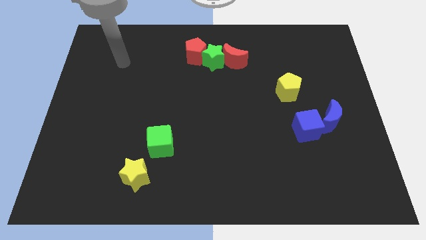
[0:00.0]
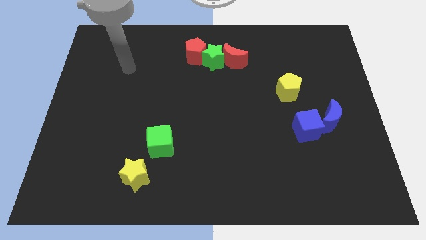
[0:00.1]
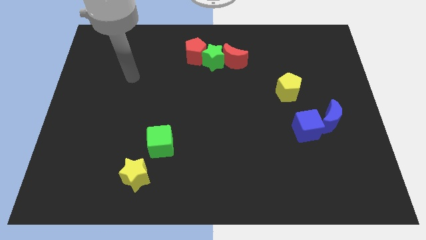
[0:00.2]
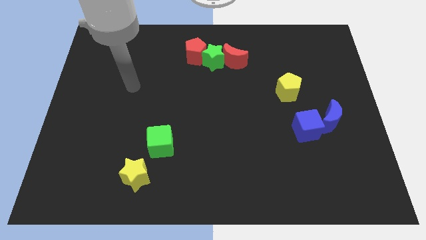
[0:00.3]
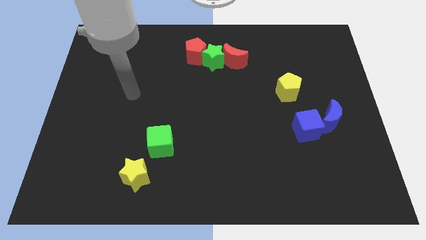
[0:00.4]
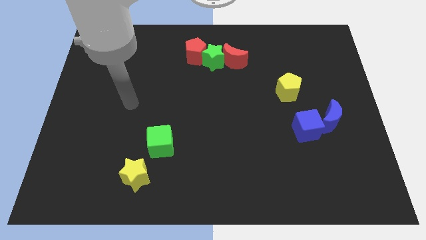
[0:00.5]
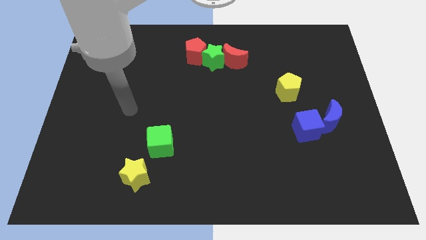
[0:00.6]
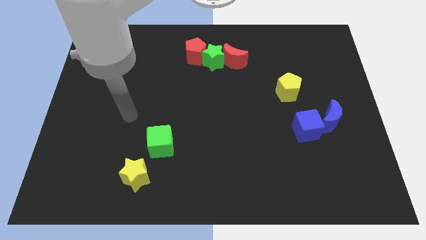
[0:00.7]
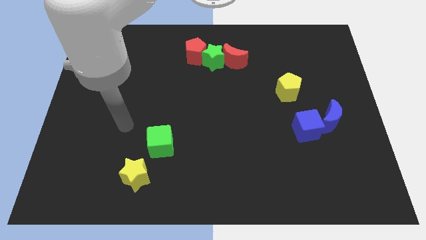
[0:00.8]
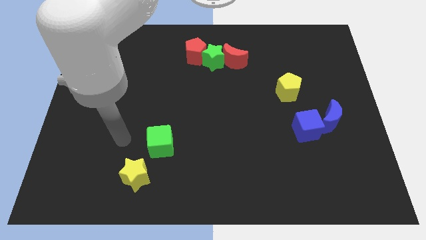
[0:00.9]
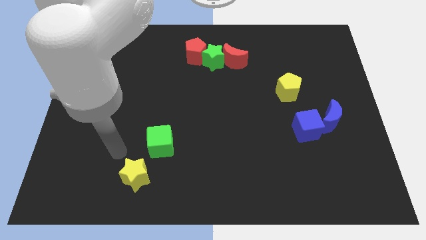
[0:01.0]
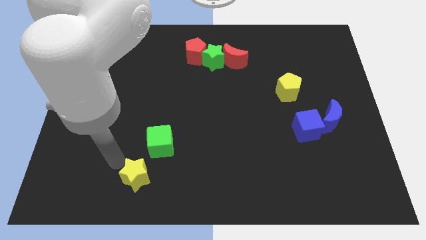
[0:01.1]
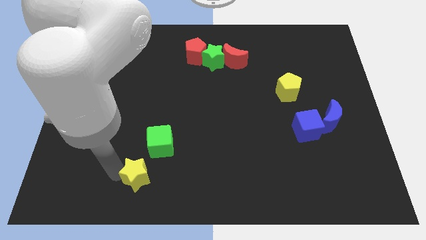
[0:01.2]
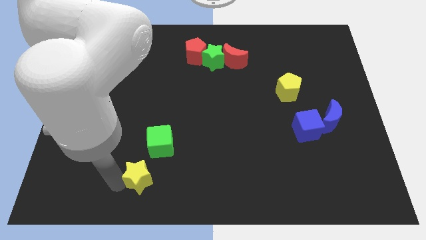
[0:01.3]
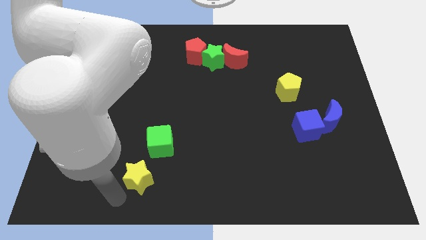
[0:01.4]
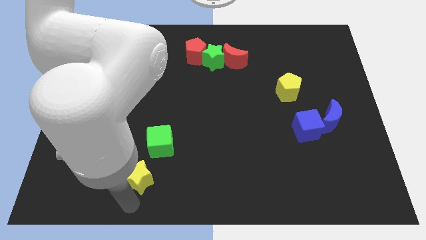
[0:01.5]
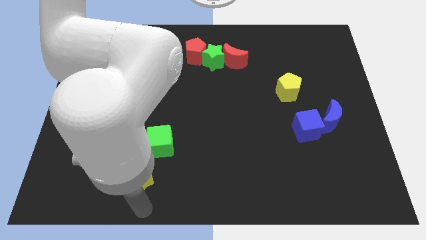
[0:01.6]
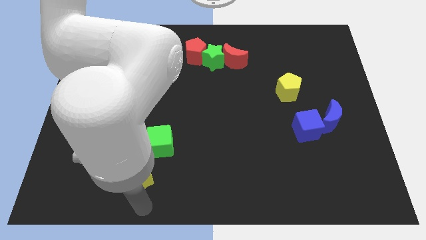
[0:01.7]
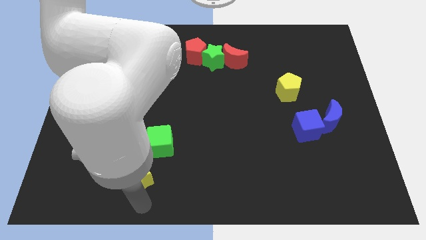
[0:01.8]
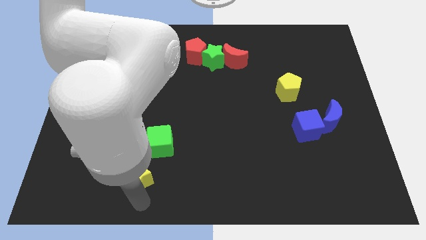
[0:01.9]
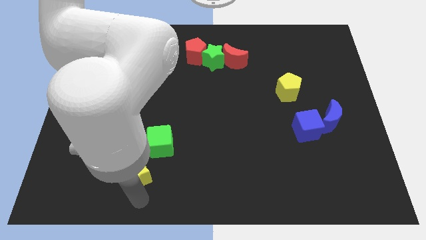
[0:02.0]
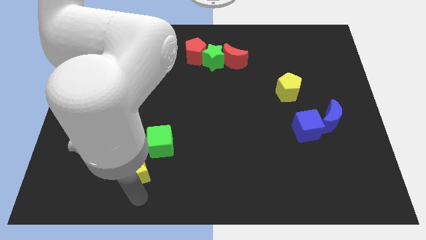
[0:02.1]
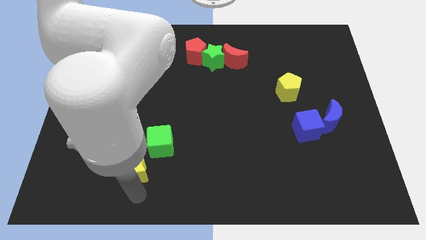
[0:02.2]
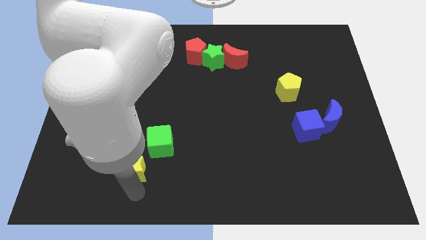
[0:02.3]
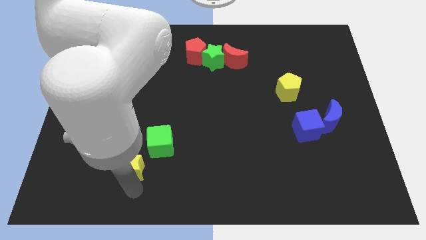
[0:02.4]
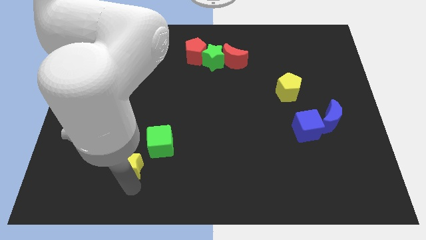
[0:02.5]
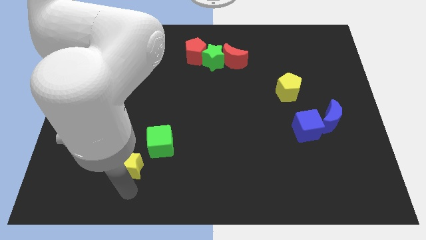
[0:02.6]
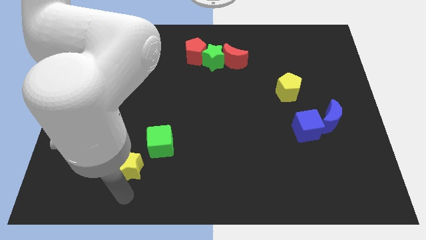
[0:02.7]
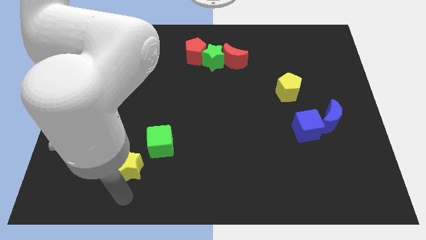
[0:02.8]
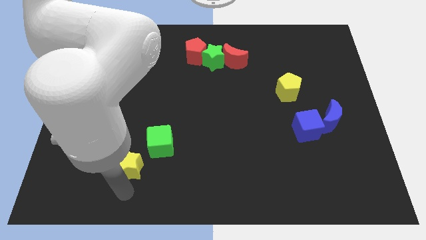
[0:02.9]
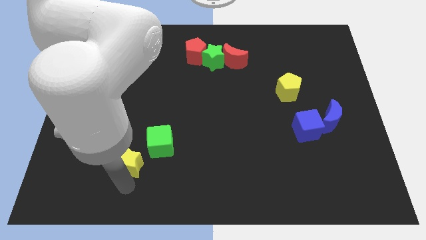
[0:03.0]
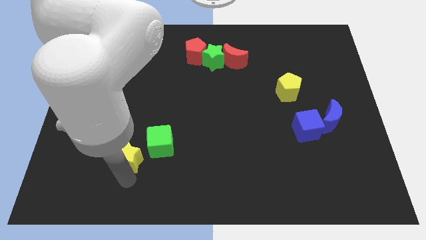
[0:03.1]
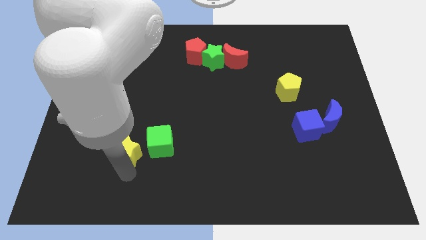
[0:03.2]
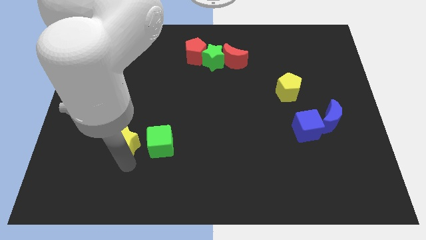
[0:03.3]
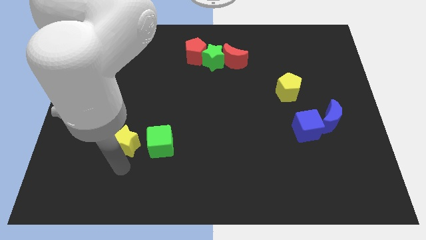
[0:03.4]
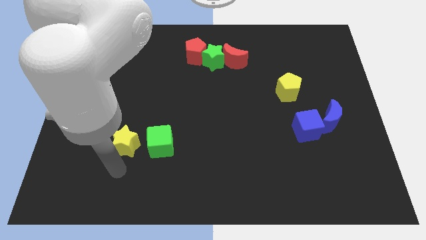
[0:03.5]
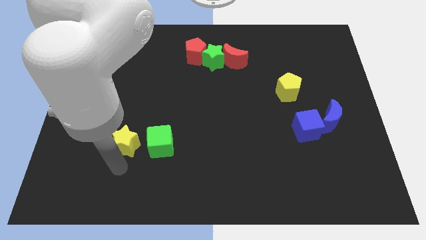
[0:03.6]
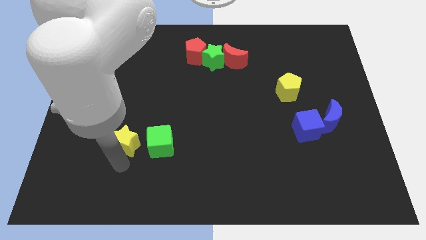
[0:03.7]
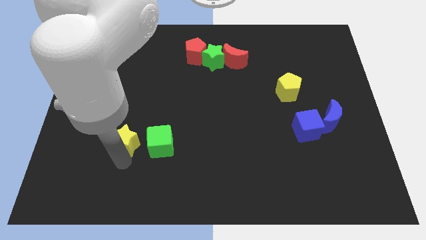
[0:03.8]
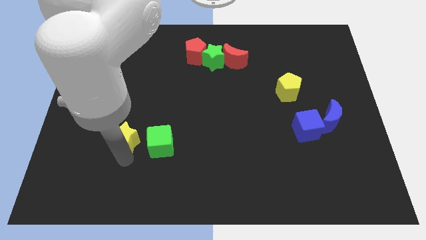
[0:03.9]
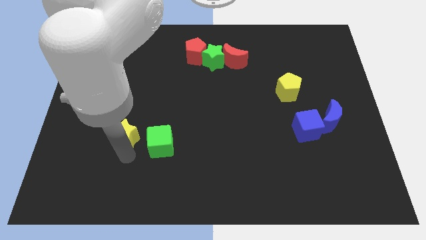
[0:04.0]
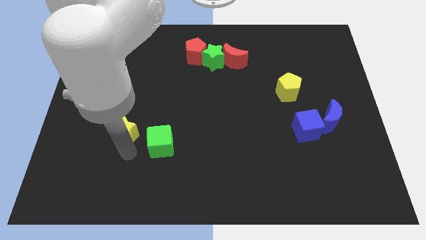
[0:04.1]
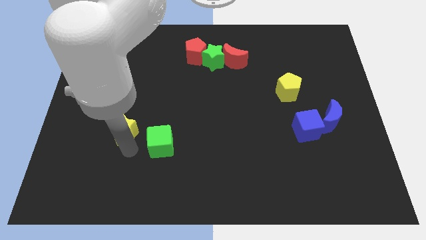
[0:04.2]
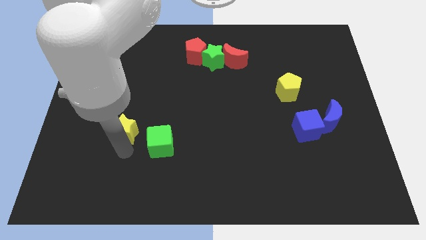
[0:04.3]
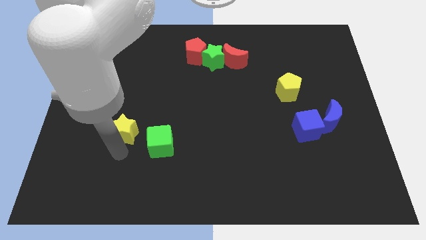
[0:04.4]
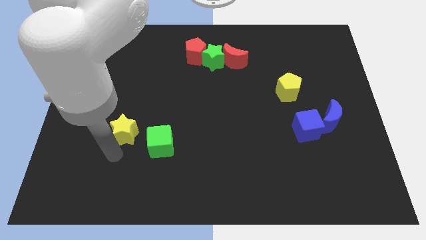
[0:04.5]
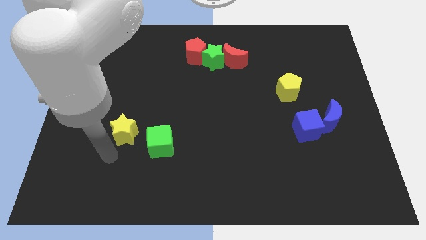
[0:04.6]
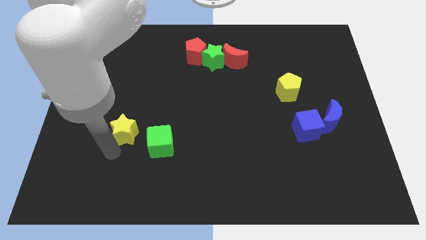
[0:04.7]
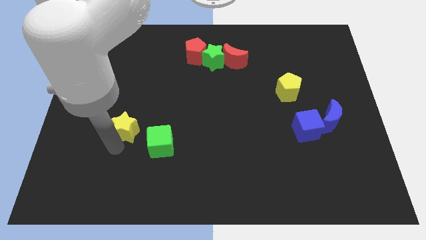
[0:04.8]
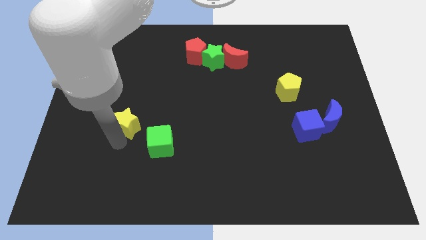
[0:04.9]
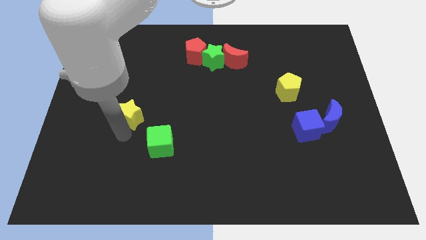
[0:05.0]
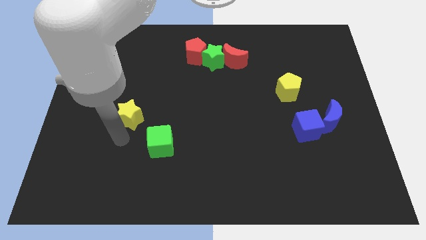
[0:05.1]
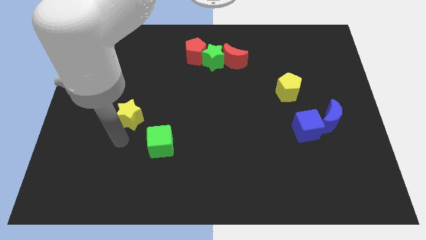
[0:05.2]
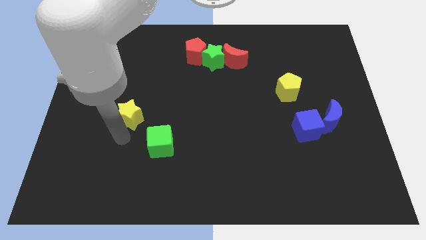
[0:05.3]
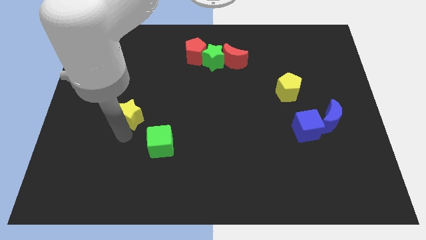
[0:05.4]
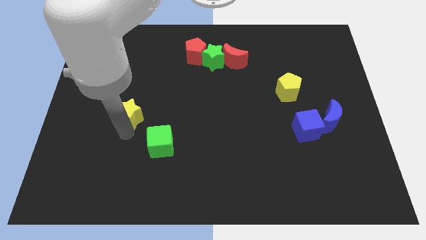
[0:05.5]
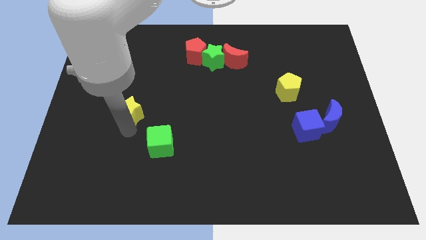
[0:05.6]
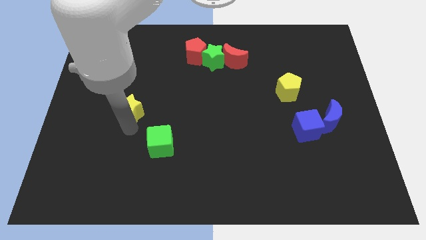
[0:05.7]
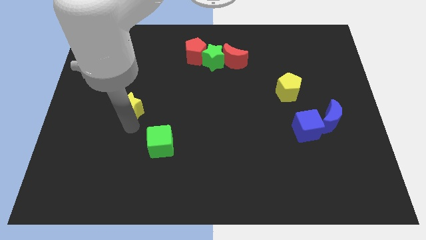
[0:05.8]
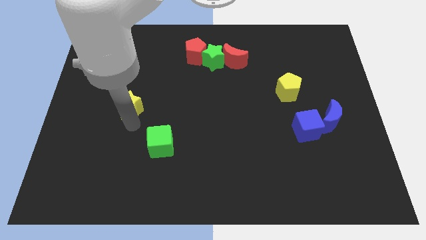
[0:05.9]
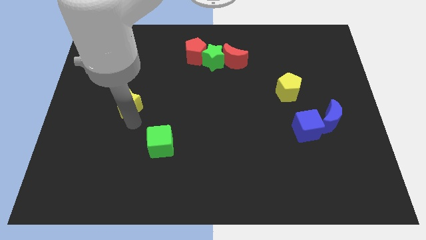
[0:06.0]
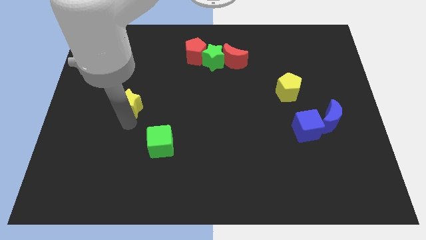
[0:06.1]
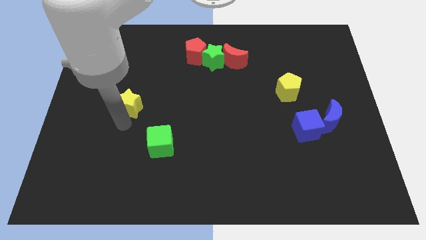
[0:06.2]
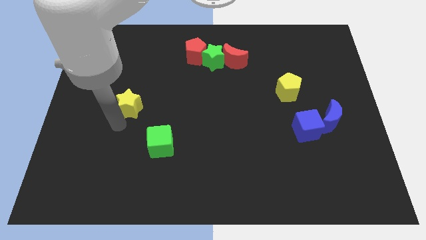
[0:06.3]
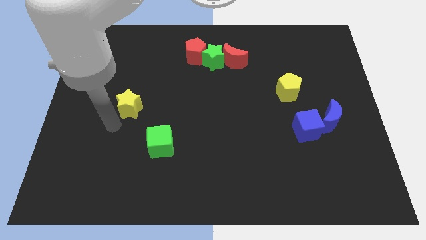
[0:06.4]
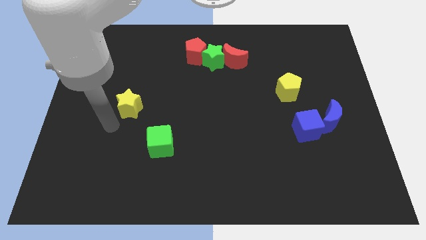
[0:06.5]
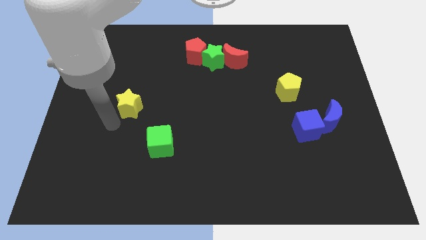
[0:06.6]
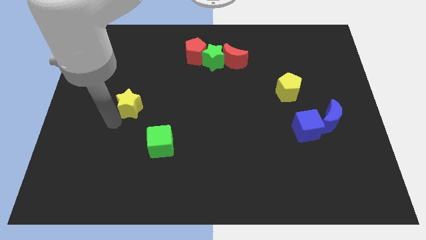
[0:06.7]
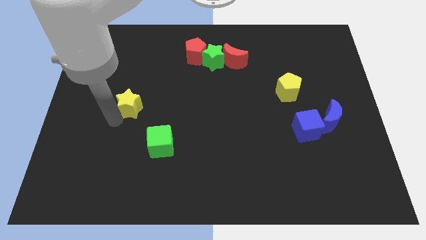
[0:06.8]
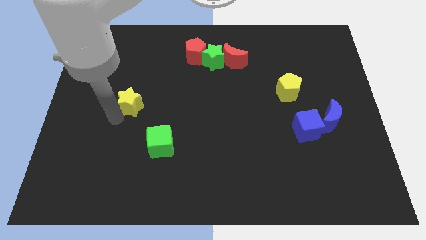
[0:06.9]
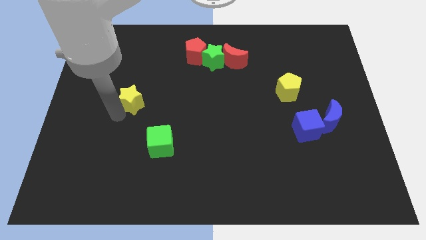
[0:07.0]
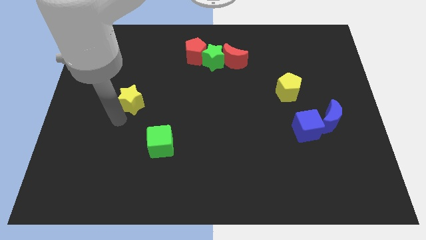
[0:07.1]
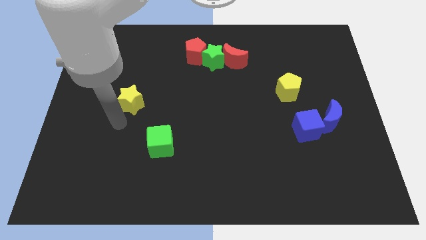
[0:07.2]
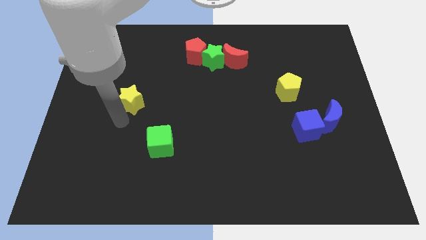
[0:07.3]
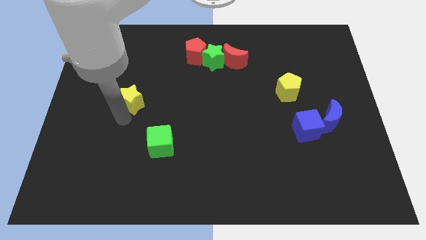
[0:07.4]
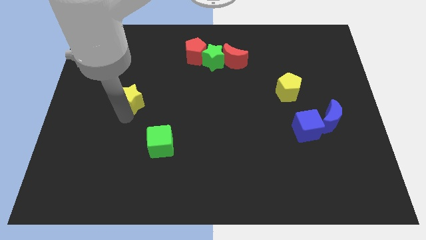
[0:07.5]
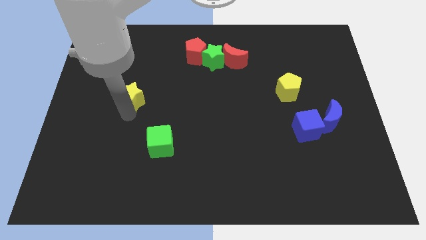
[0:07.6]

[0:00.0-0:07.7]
push the yellow star up

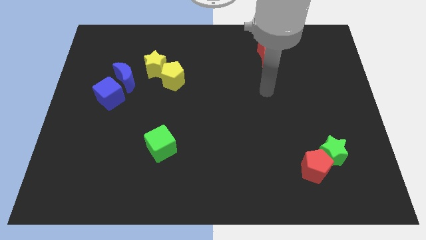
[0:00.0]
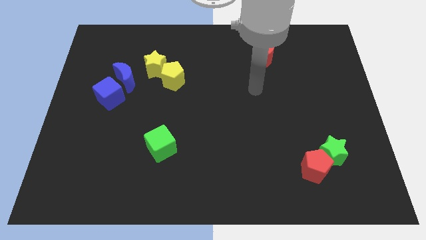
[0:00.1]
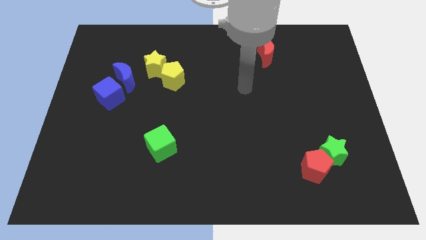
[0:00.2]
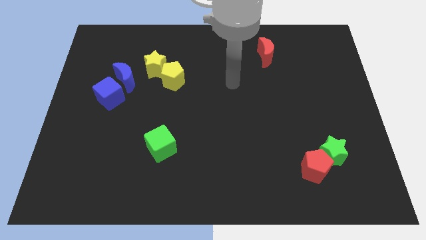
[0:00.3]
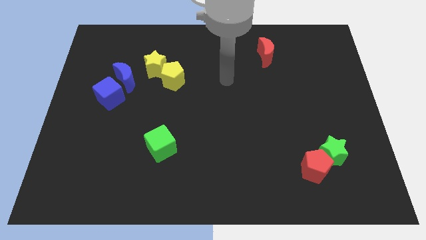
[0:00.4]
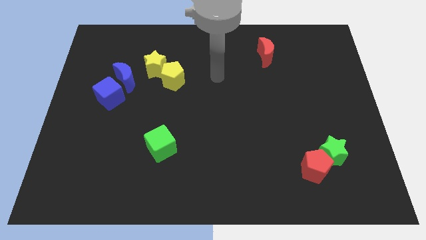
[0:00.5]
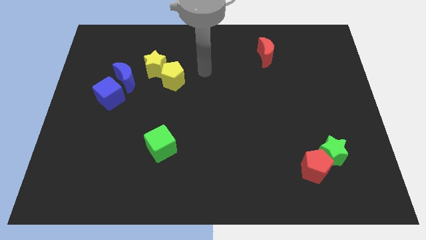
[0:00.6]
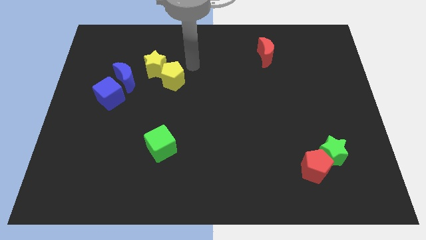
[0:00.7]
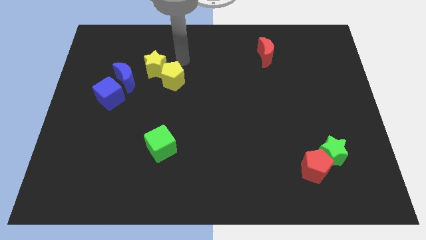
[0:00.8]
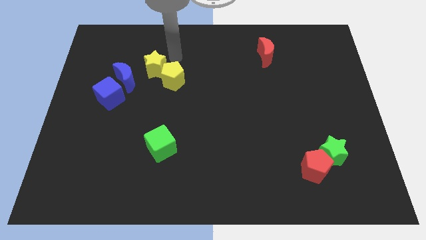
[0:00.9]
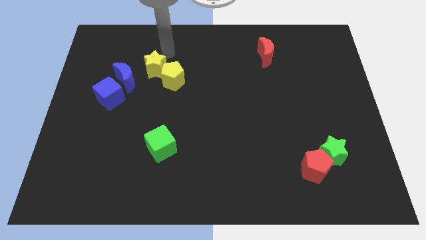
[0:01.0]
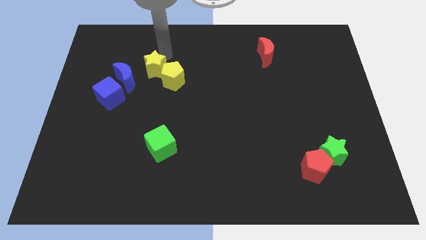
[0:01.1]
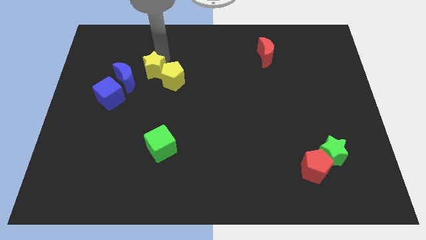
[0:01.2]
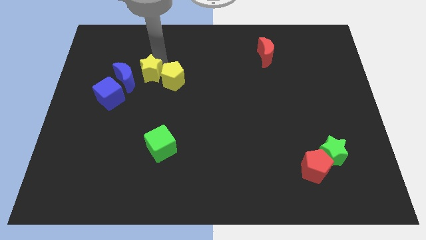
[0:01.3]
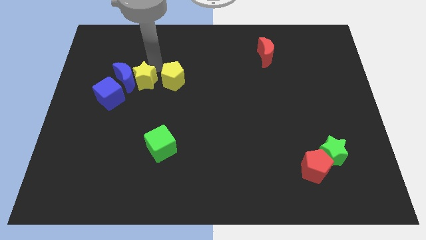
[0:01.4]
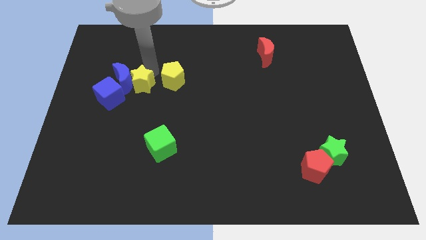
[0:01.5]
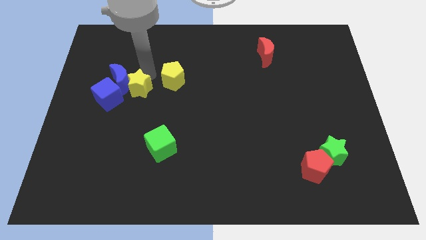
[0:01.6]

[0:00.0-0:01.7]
move the yellow star diagonally down and to the left somewhat
